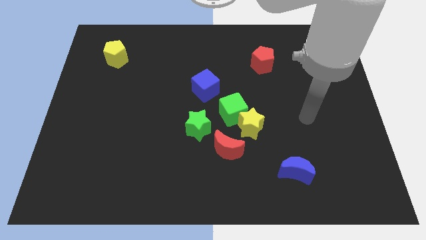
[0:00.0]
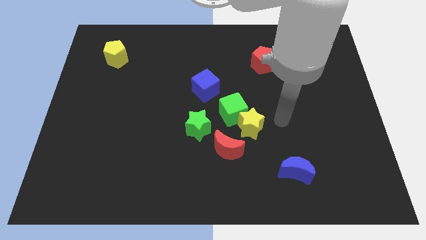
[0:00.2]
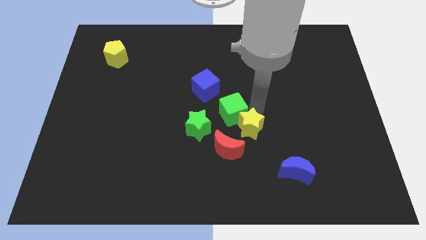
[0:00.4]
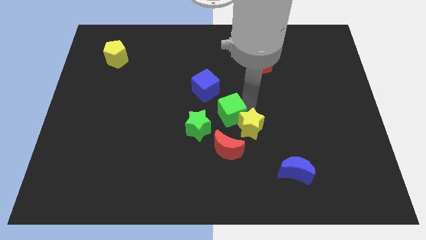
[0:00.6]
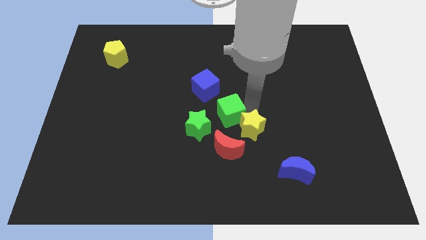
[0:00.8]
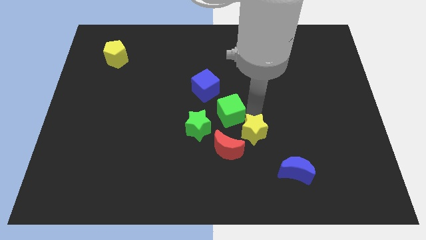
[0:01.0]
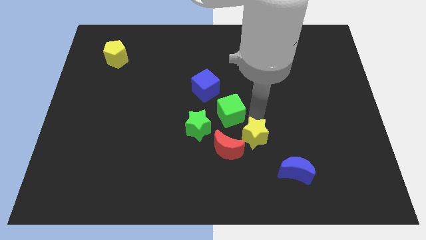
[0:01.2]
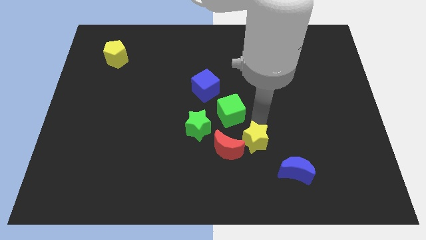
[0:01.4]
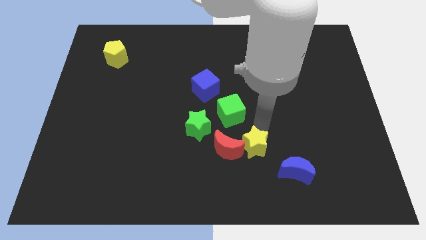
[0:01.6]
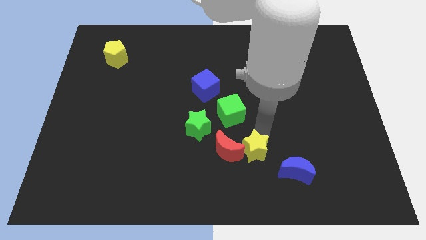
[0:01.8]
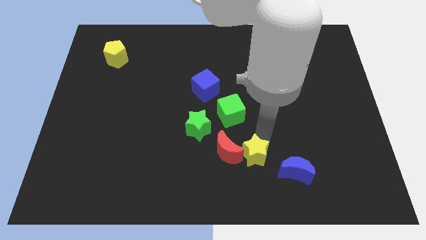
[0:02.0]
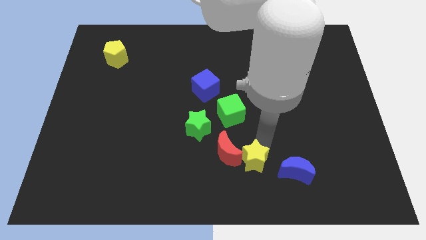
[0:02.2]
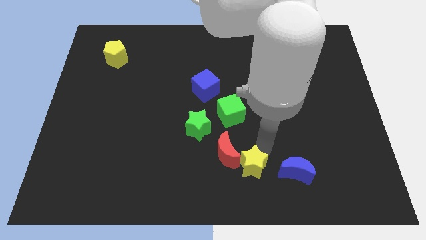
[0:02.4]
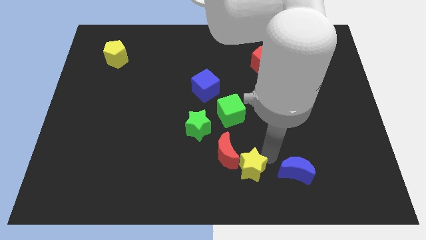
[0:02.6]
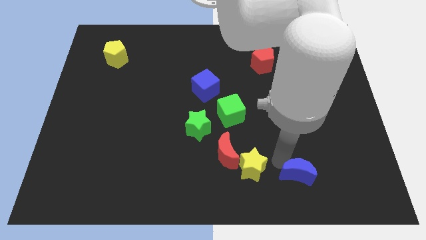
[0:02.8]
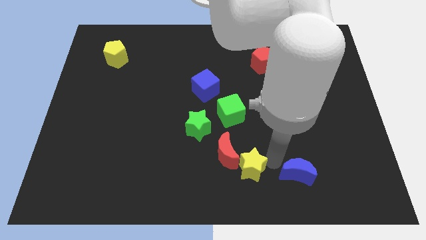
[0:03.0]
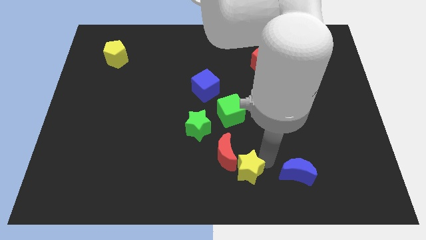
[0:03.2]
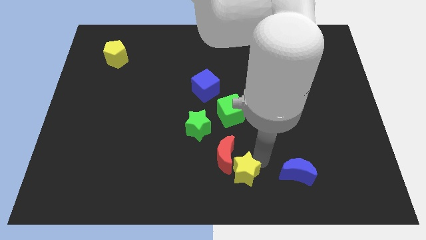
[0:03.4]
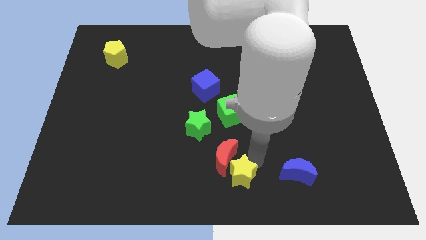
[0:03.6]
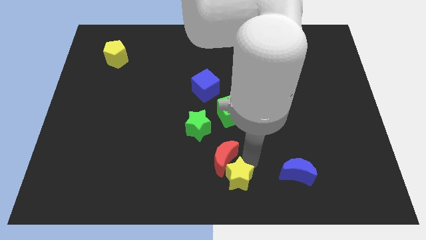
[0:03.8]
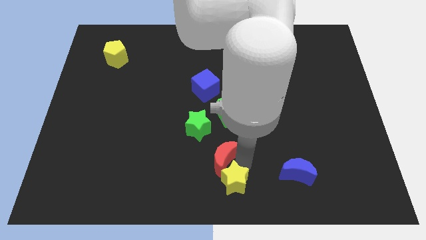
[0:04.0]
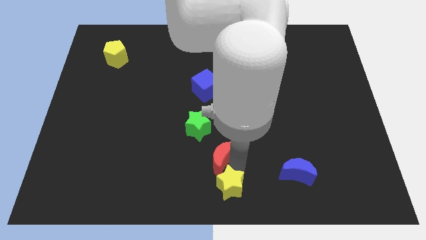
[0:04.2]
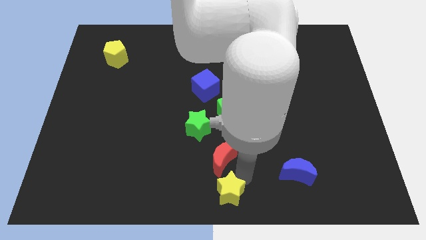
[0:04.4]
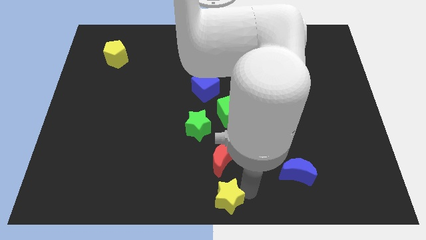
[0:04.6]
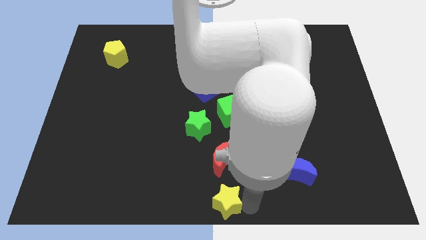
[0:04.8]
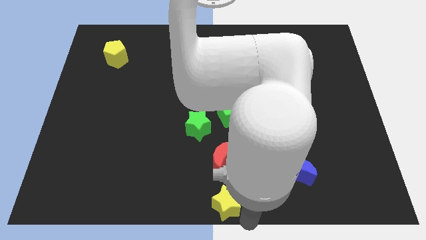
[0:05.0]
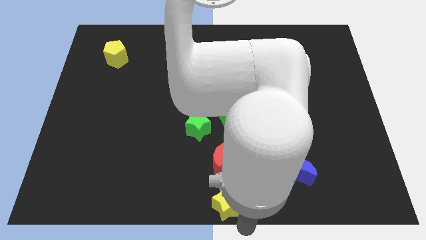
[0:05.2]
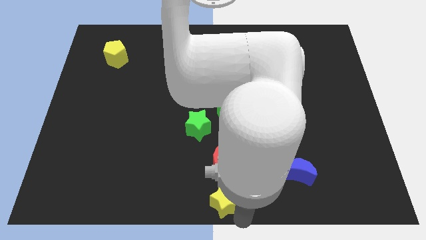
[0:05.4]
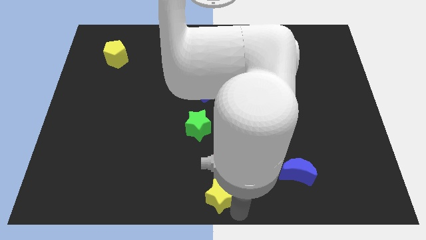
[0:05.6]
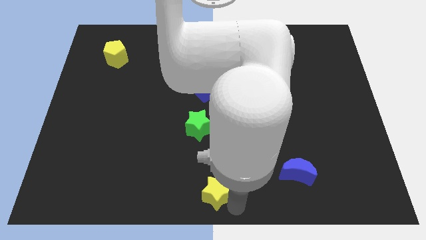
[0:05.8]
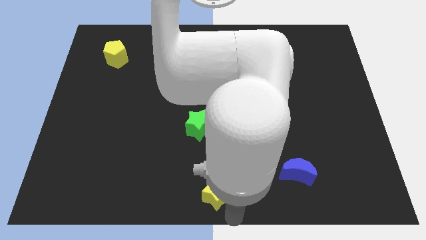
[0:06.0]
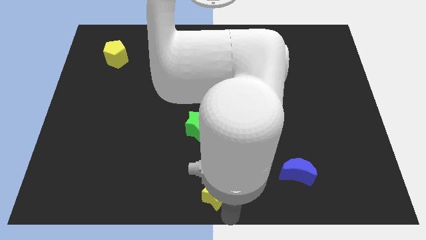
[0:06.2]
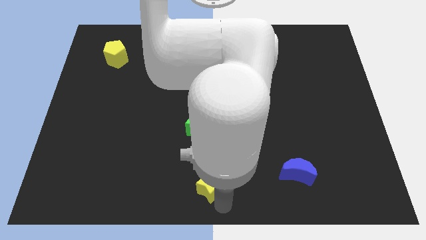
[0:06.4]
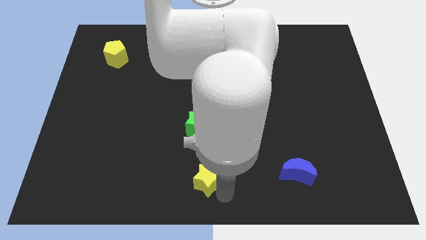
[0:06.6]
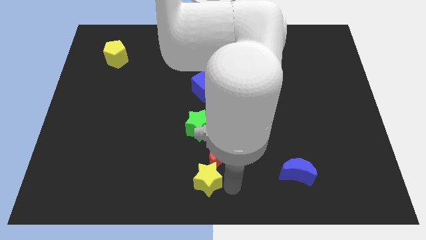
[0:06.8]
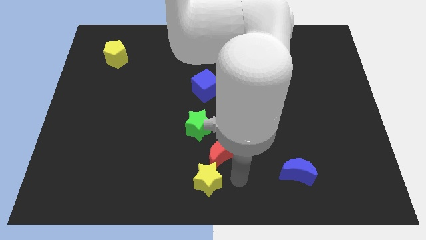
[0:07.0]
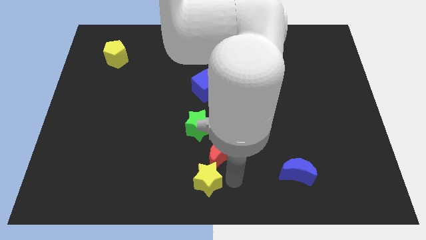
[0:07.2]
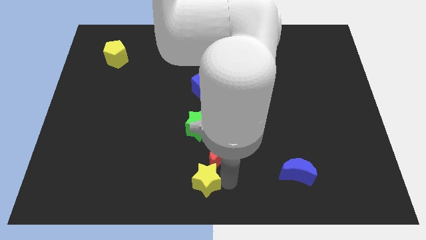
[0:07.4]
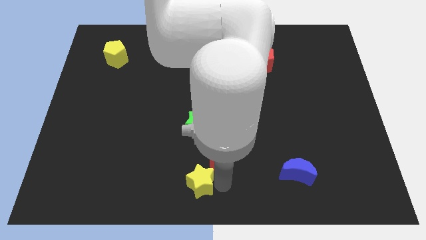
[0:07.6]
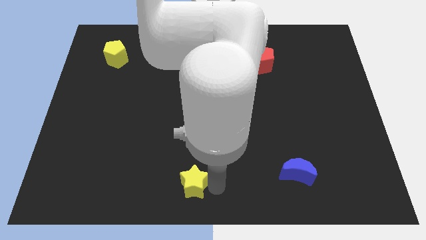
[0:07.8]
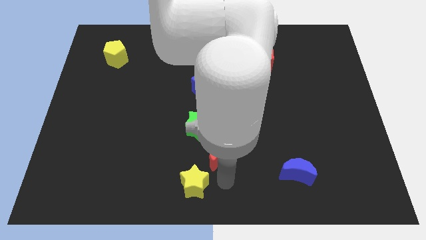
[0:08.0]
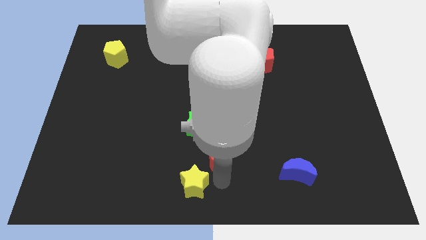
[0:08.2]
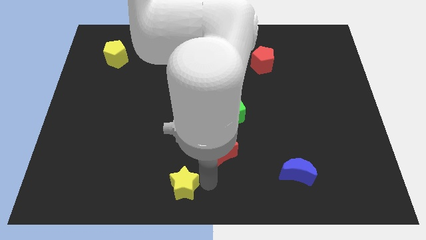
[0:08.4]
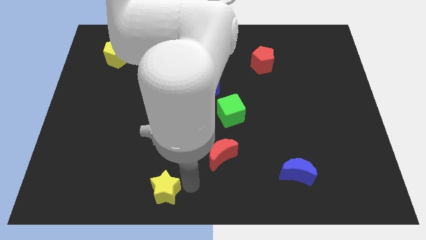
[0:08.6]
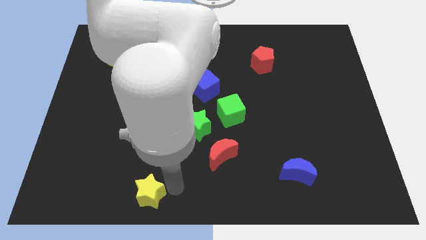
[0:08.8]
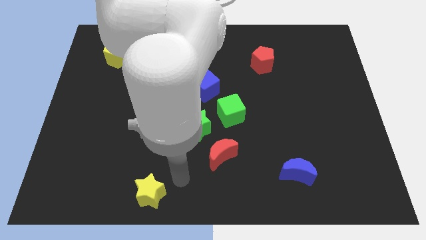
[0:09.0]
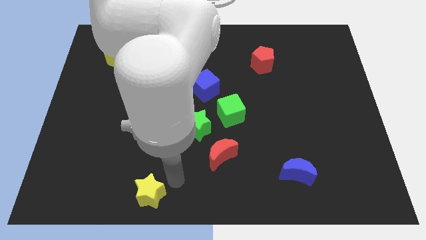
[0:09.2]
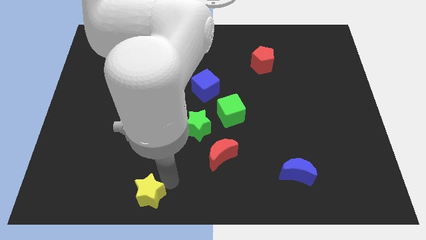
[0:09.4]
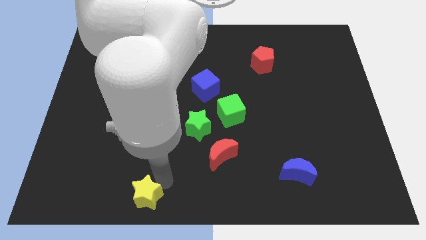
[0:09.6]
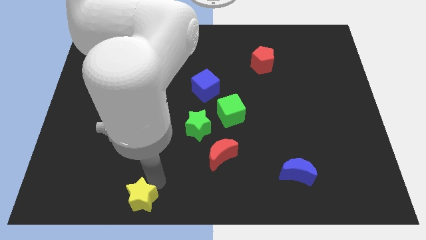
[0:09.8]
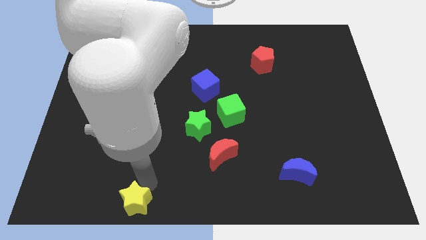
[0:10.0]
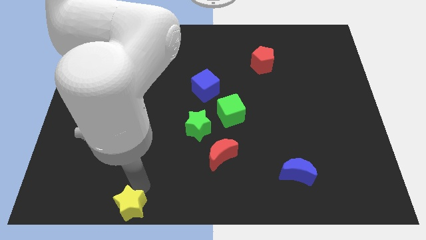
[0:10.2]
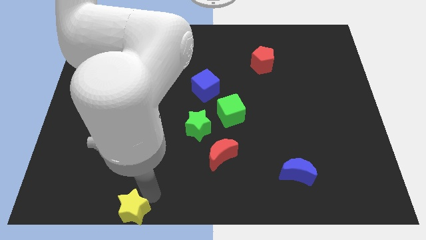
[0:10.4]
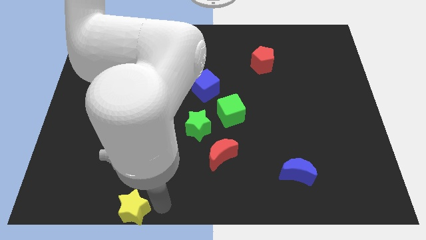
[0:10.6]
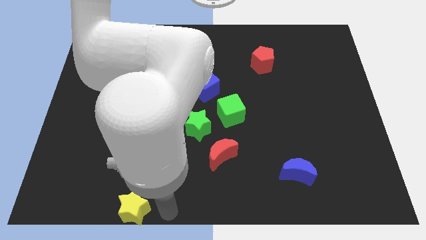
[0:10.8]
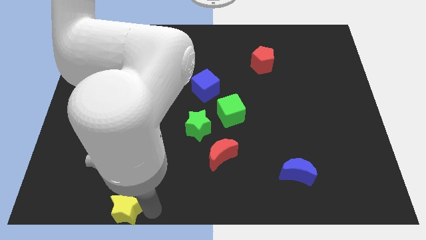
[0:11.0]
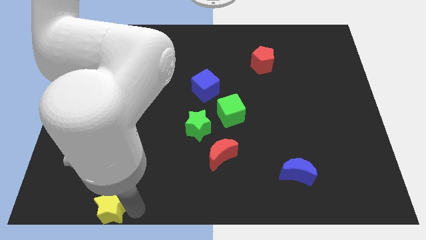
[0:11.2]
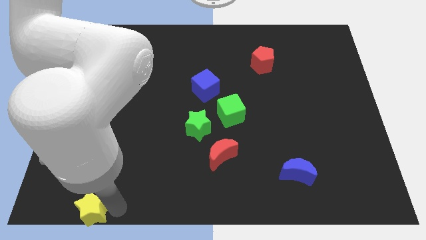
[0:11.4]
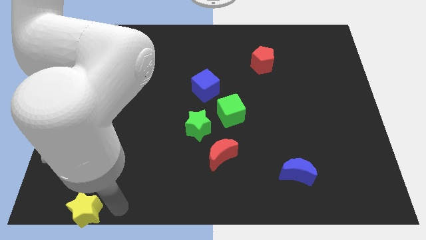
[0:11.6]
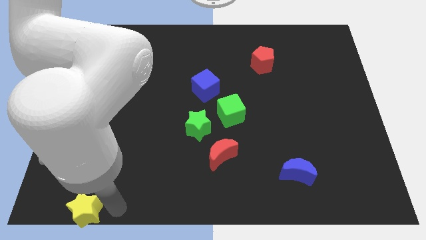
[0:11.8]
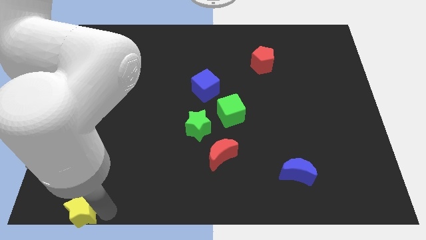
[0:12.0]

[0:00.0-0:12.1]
put the yellow star to the bottom left of the board

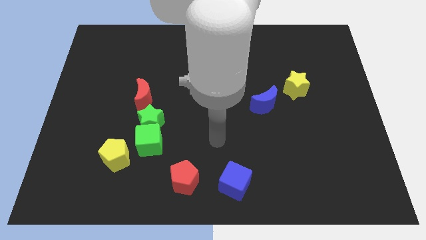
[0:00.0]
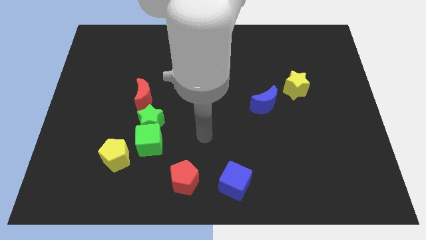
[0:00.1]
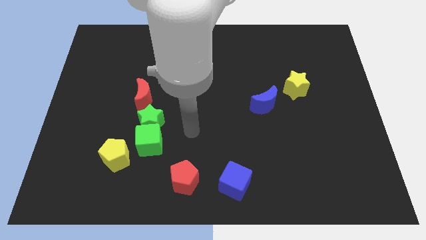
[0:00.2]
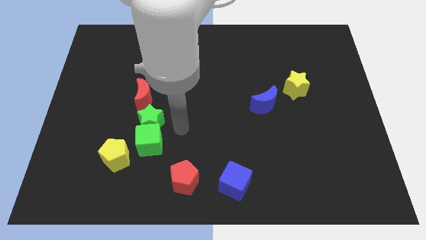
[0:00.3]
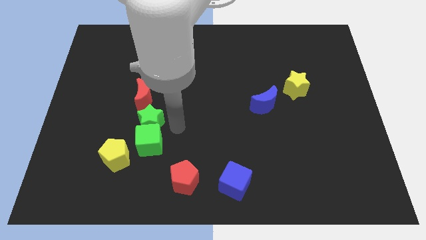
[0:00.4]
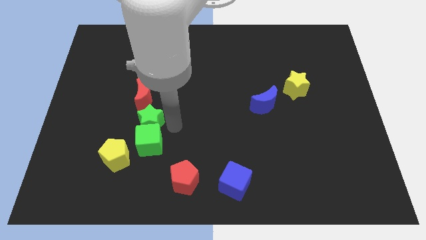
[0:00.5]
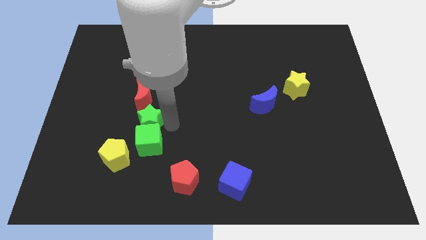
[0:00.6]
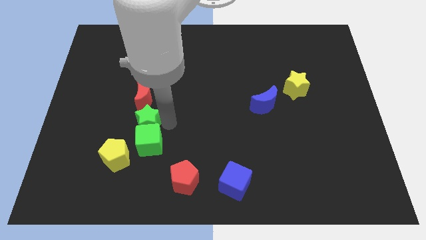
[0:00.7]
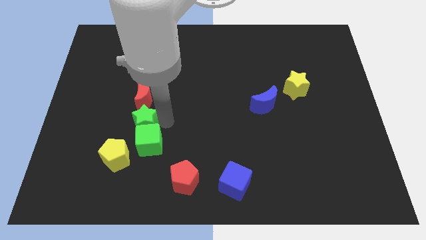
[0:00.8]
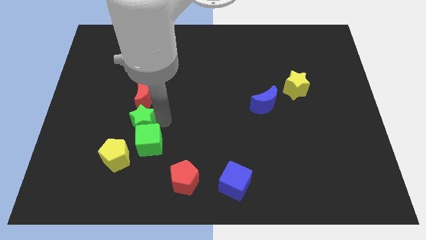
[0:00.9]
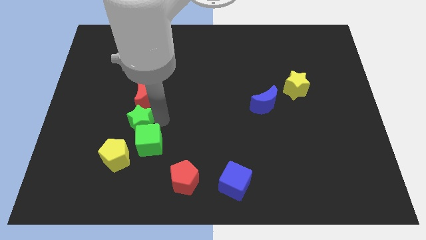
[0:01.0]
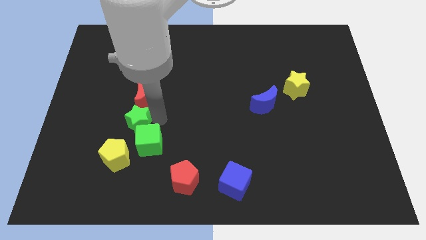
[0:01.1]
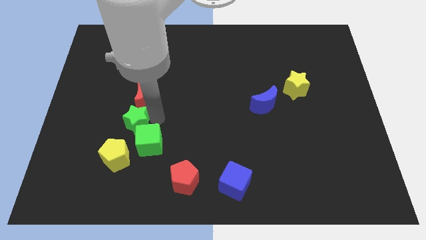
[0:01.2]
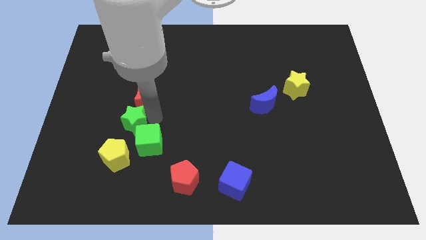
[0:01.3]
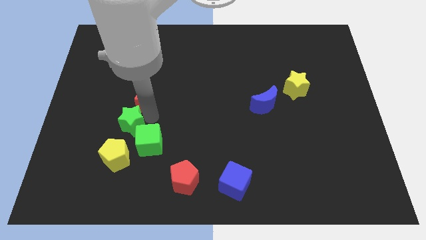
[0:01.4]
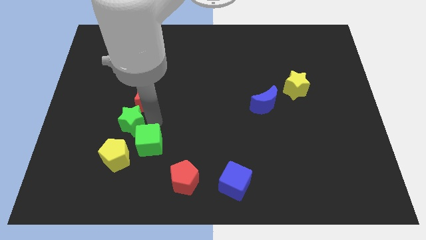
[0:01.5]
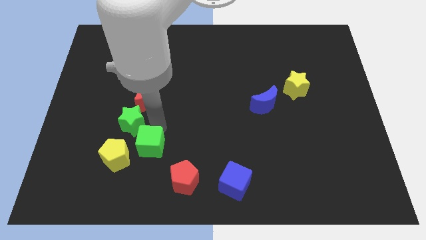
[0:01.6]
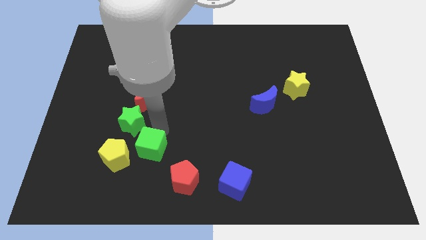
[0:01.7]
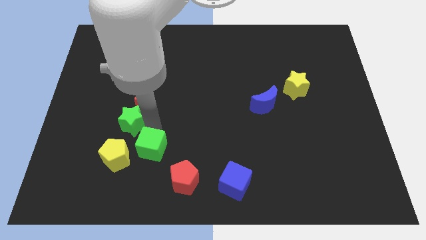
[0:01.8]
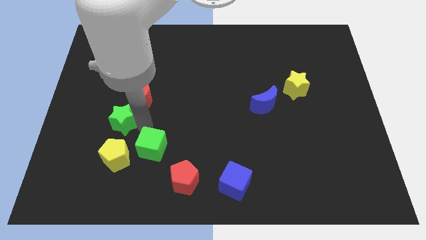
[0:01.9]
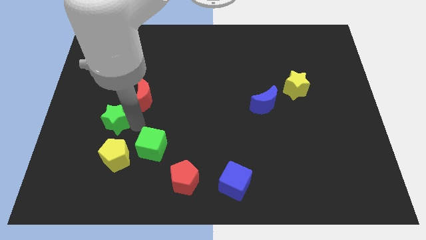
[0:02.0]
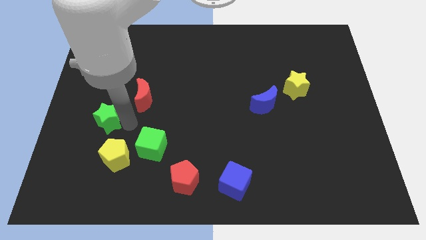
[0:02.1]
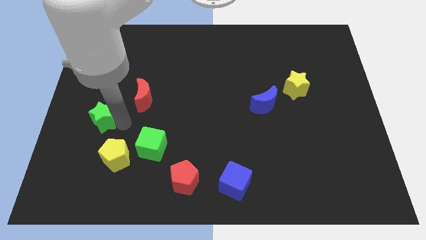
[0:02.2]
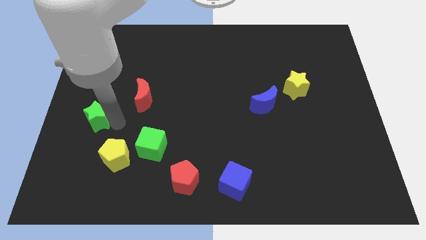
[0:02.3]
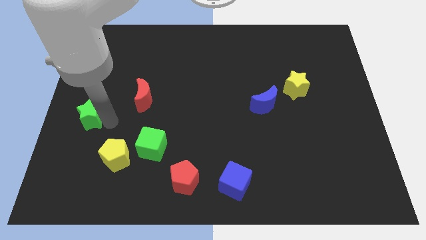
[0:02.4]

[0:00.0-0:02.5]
push the green star to the left side
